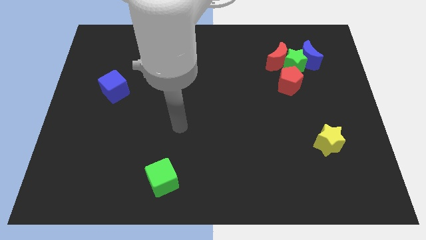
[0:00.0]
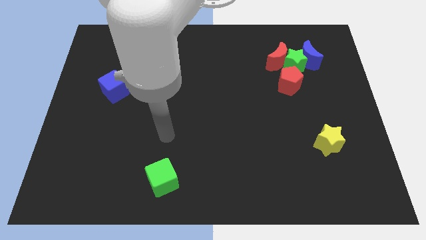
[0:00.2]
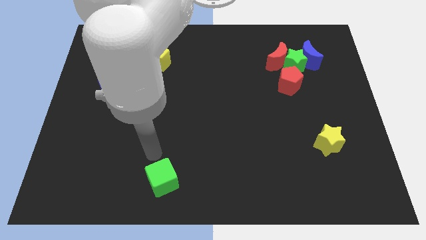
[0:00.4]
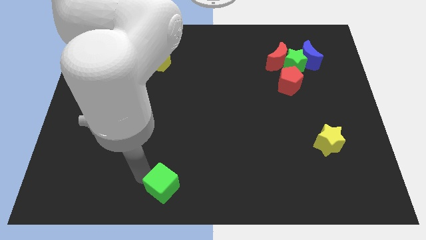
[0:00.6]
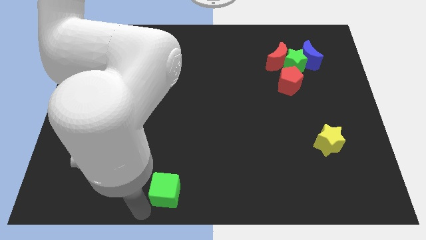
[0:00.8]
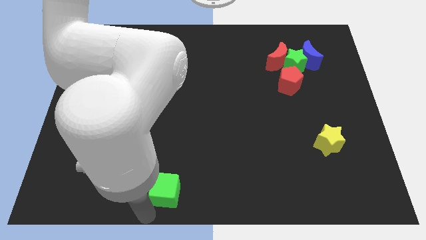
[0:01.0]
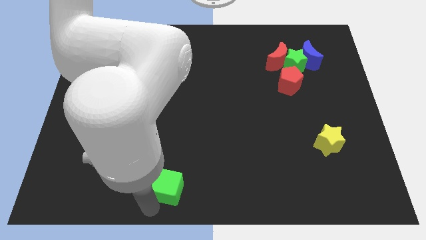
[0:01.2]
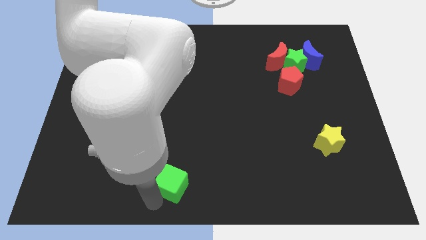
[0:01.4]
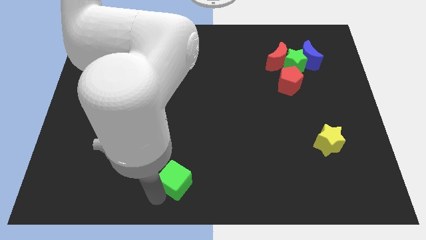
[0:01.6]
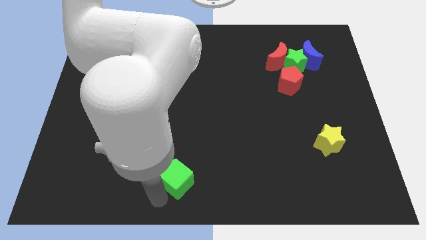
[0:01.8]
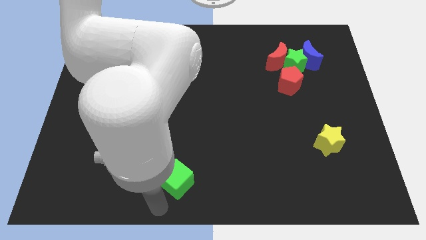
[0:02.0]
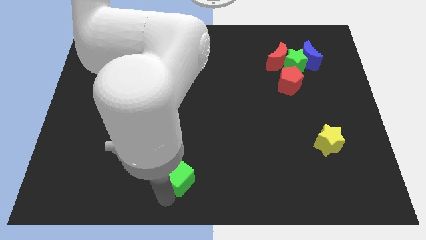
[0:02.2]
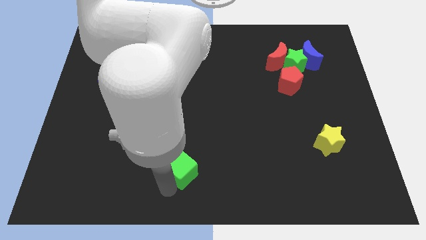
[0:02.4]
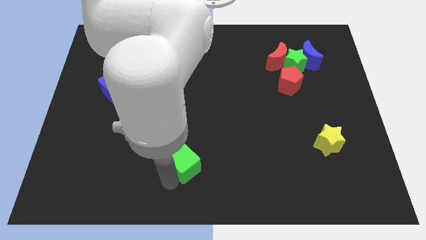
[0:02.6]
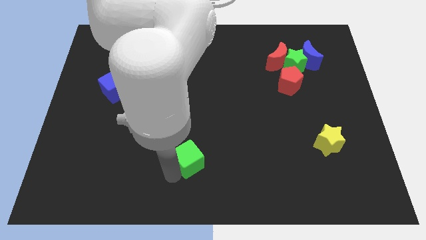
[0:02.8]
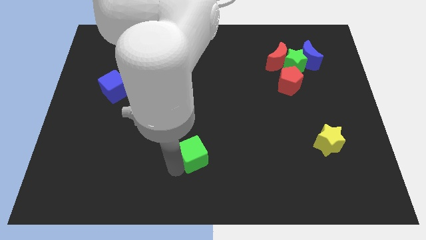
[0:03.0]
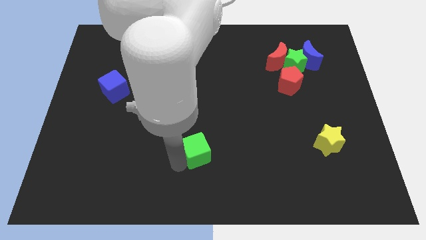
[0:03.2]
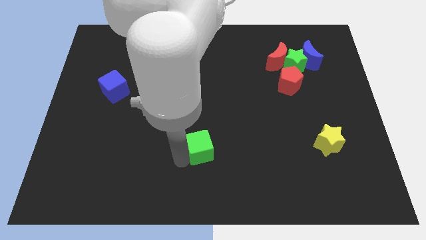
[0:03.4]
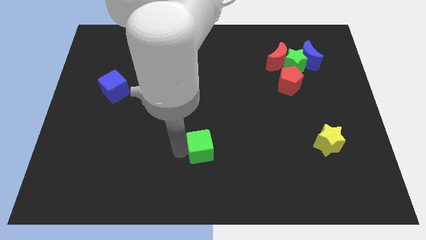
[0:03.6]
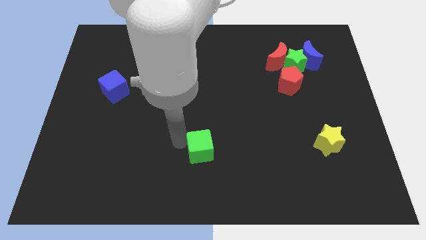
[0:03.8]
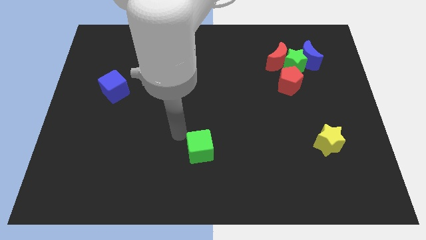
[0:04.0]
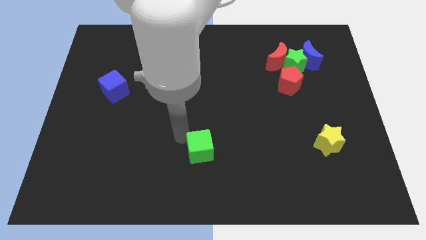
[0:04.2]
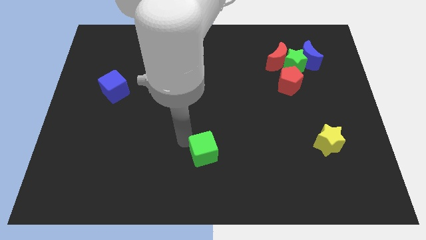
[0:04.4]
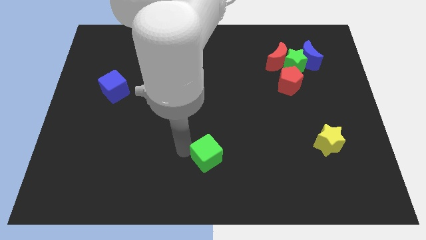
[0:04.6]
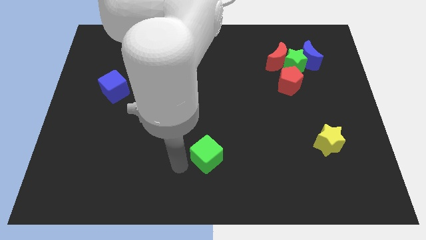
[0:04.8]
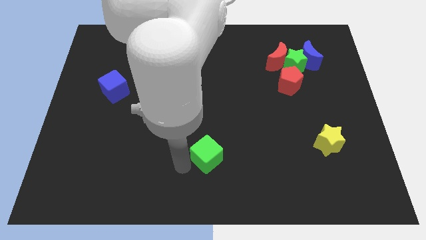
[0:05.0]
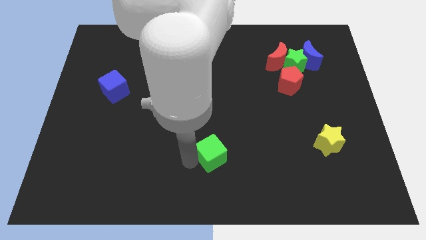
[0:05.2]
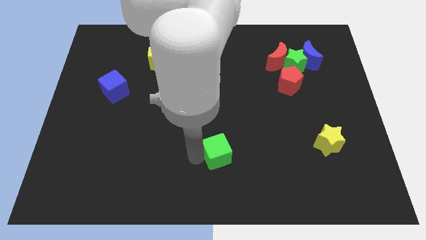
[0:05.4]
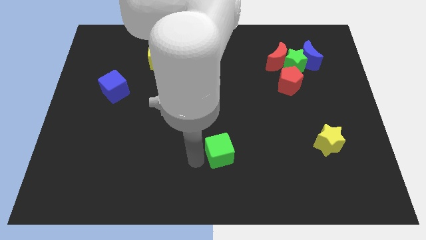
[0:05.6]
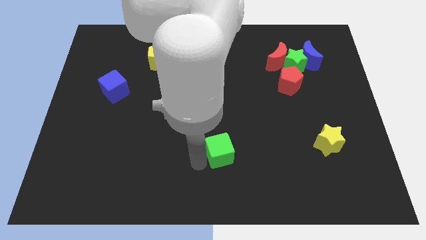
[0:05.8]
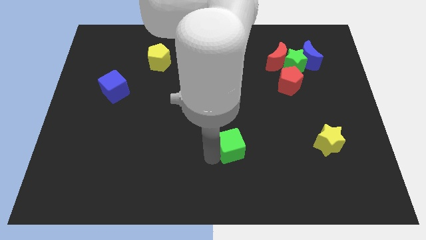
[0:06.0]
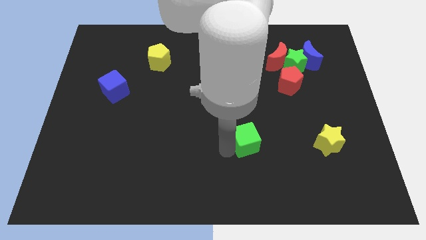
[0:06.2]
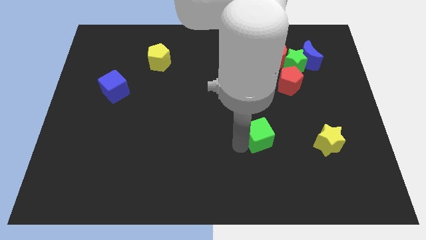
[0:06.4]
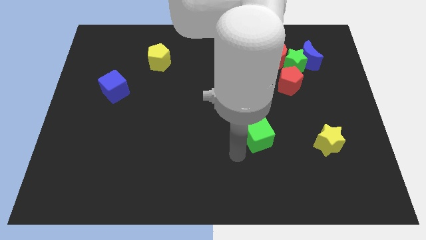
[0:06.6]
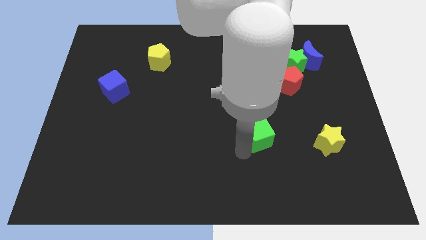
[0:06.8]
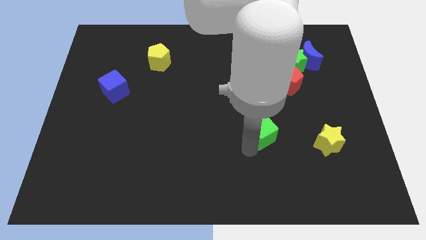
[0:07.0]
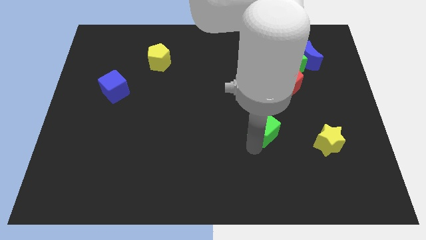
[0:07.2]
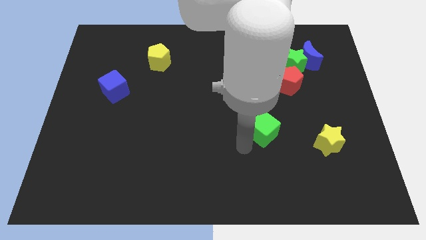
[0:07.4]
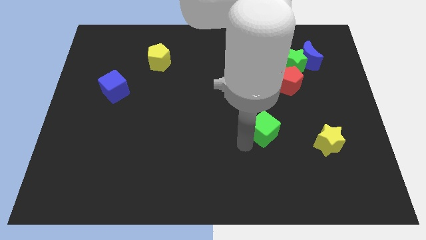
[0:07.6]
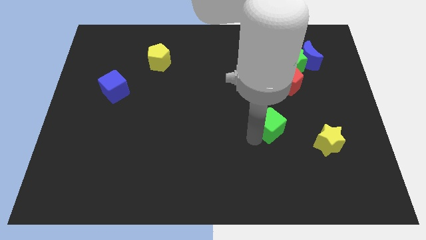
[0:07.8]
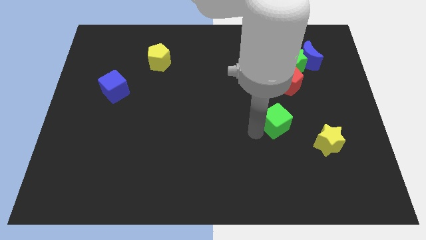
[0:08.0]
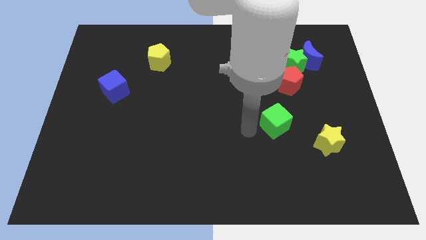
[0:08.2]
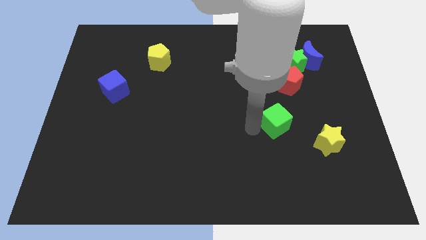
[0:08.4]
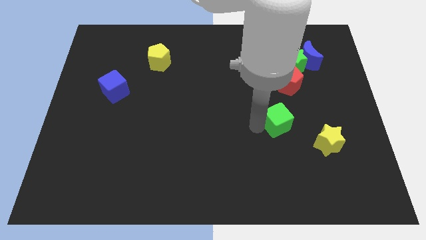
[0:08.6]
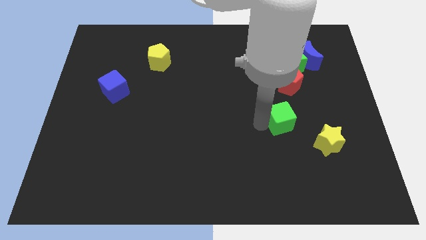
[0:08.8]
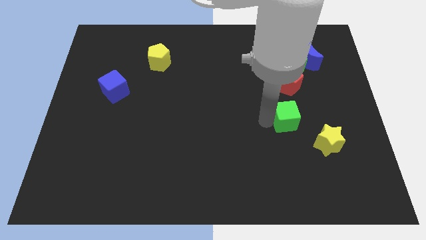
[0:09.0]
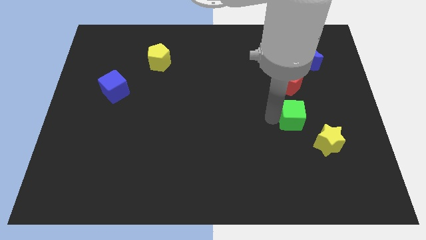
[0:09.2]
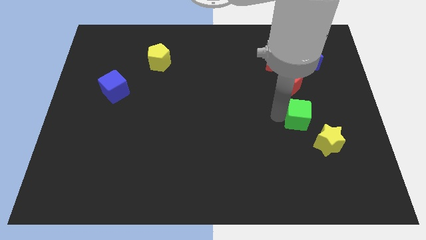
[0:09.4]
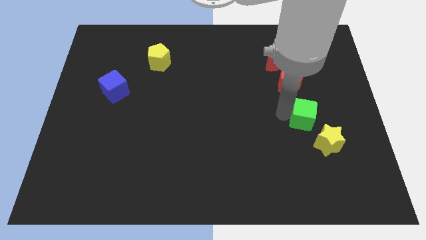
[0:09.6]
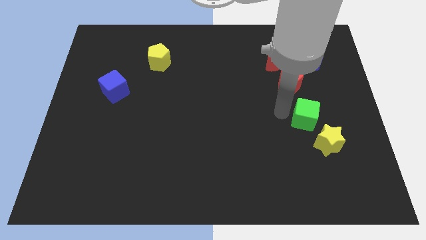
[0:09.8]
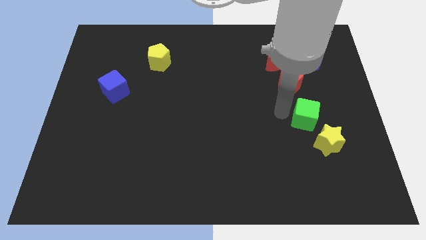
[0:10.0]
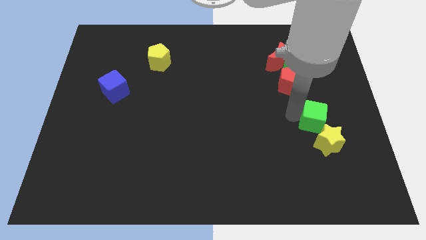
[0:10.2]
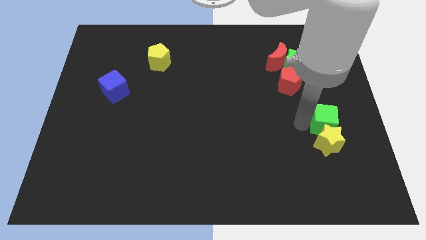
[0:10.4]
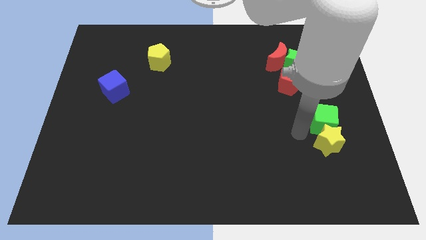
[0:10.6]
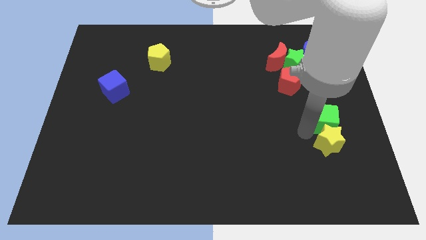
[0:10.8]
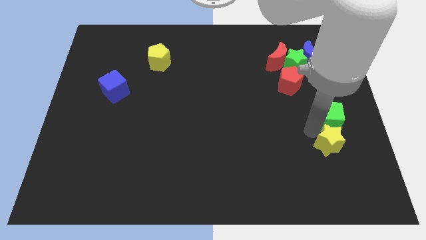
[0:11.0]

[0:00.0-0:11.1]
put the green cube to the center right

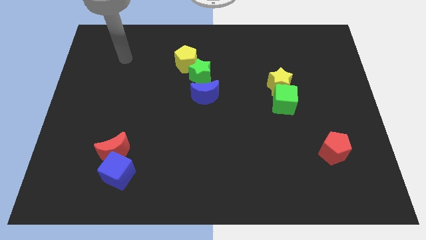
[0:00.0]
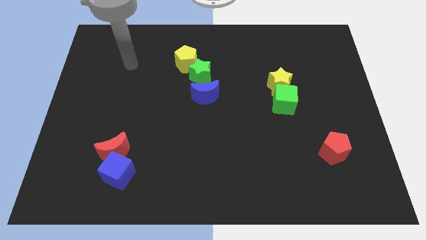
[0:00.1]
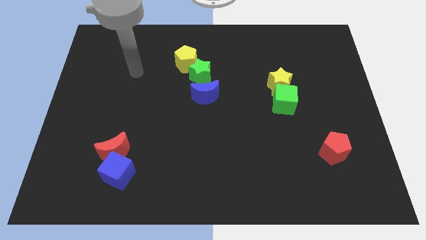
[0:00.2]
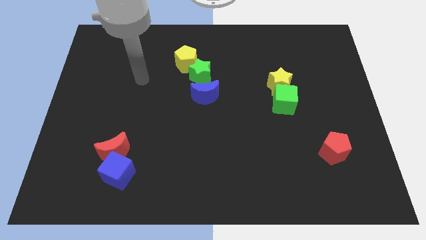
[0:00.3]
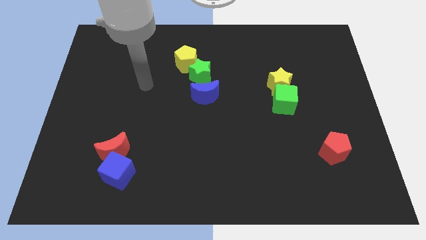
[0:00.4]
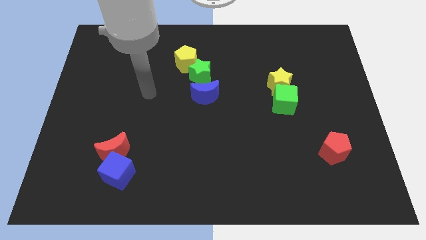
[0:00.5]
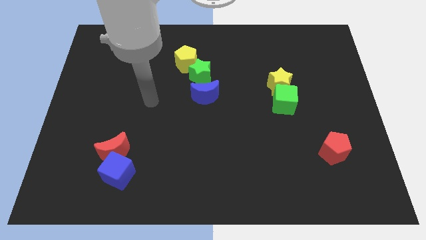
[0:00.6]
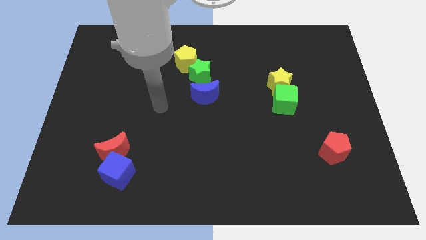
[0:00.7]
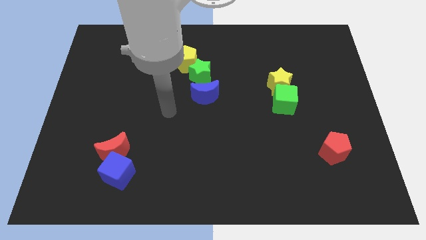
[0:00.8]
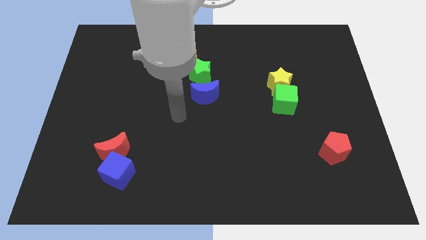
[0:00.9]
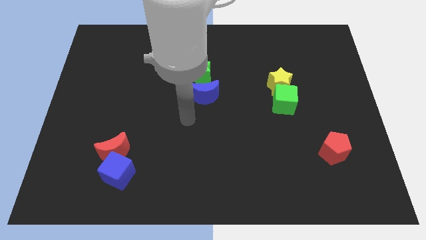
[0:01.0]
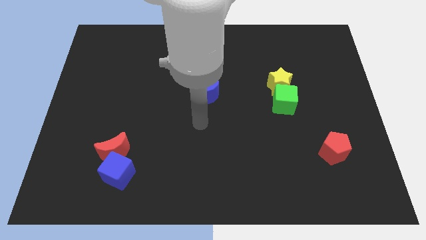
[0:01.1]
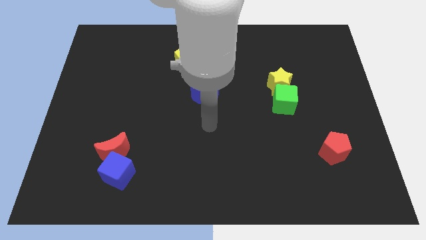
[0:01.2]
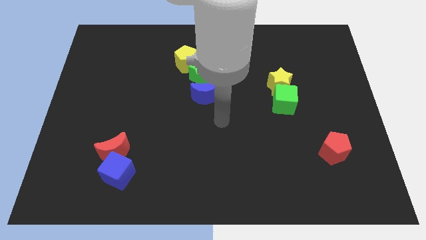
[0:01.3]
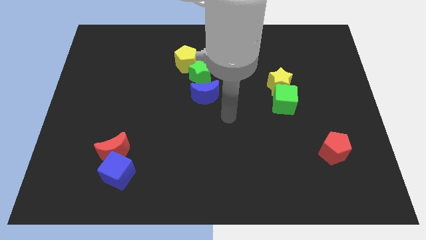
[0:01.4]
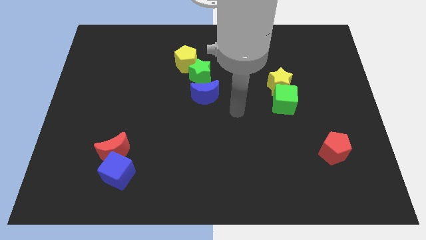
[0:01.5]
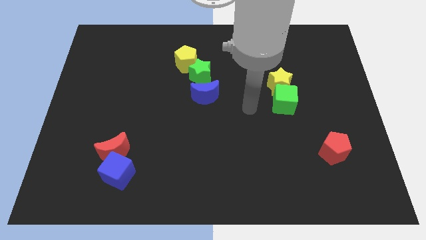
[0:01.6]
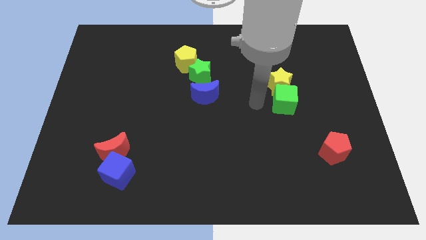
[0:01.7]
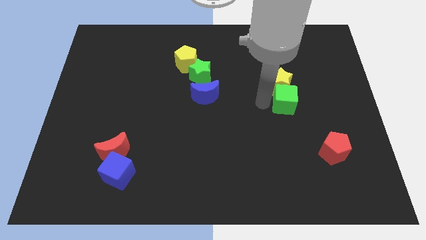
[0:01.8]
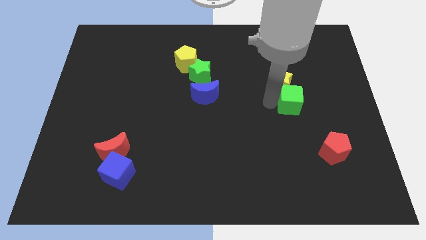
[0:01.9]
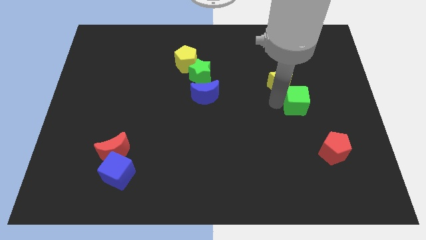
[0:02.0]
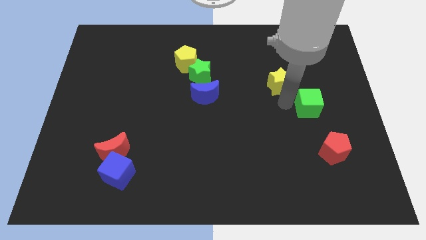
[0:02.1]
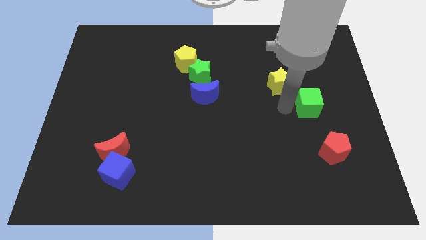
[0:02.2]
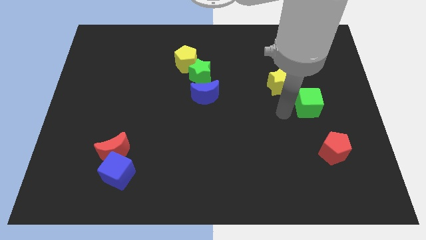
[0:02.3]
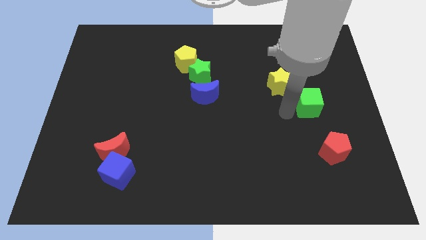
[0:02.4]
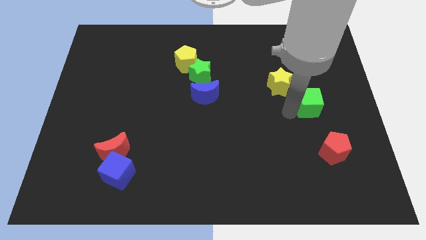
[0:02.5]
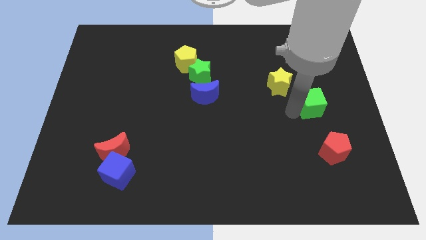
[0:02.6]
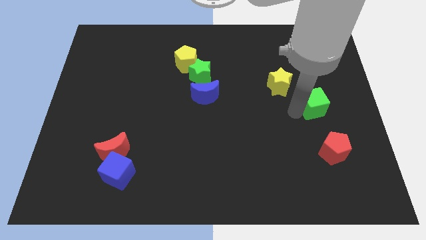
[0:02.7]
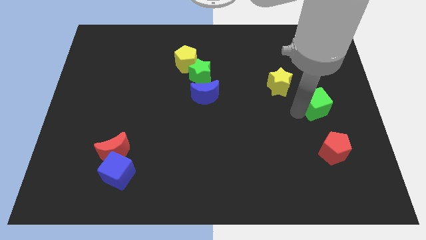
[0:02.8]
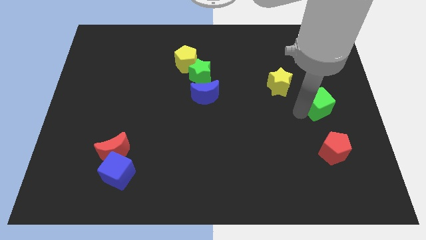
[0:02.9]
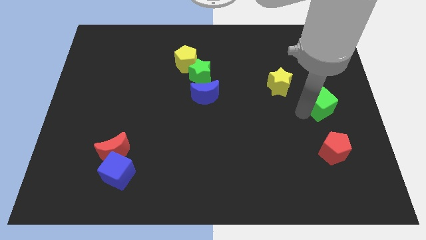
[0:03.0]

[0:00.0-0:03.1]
push the green cube to the right side of the board
